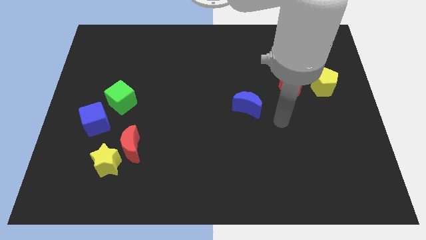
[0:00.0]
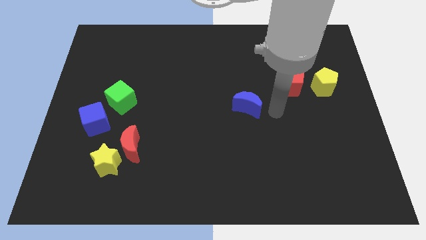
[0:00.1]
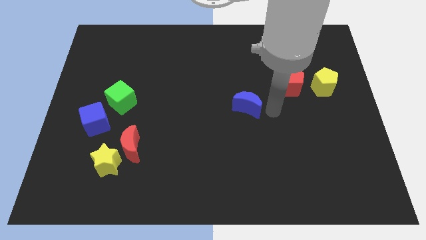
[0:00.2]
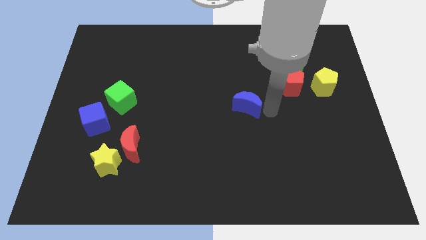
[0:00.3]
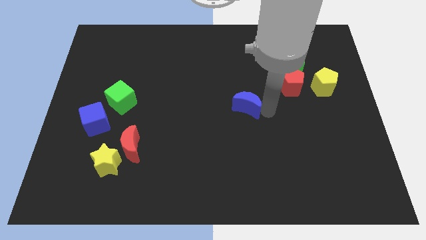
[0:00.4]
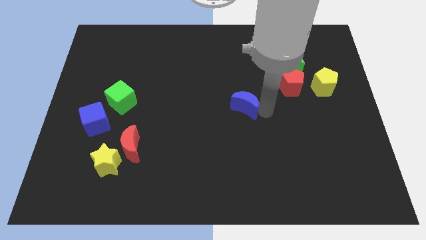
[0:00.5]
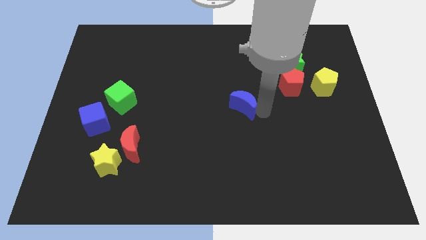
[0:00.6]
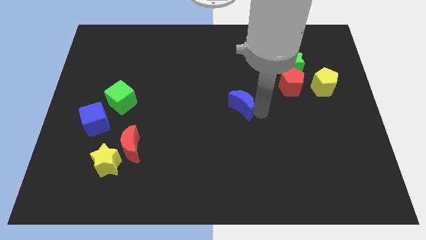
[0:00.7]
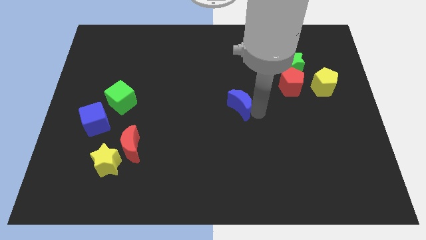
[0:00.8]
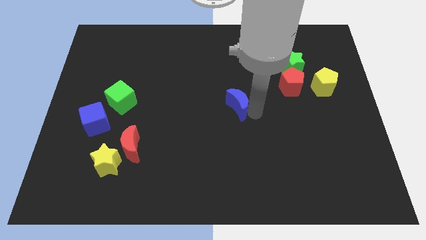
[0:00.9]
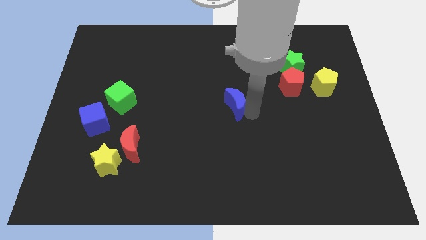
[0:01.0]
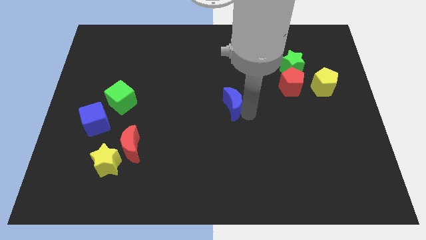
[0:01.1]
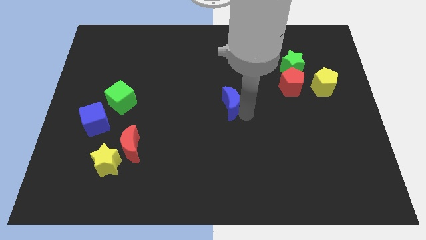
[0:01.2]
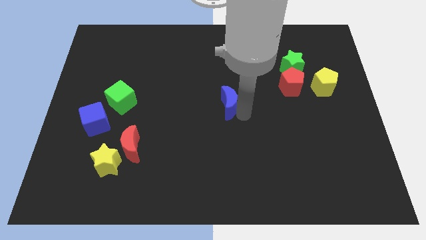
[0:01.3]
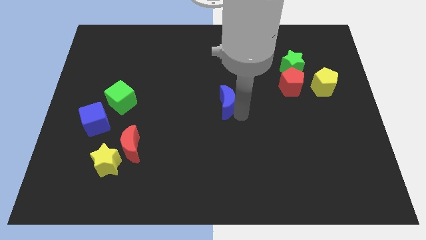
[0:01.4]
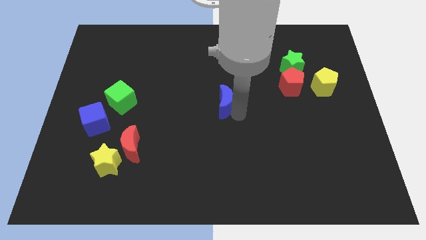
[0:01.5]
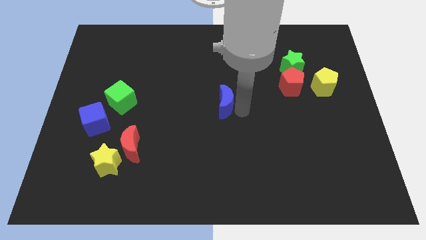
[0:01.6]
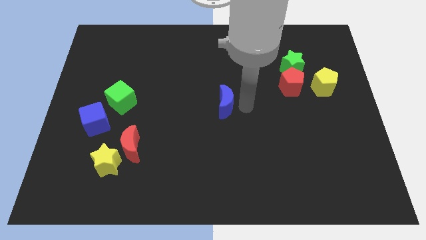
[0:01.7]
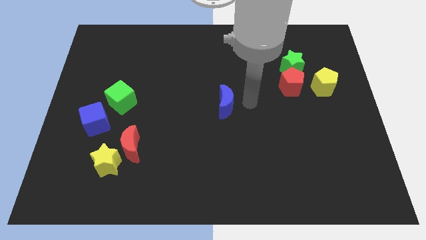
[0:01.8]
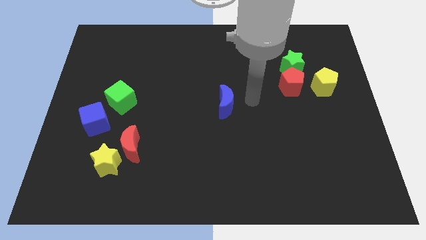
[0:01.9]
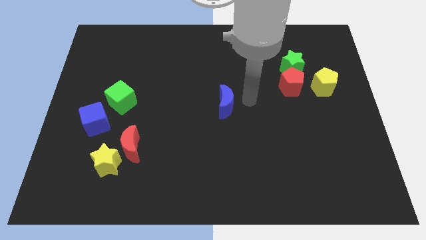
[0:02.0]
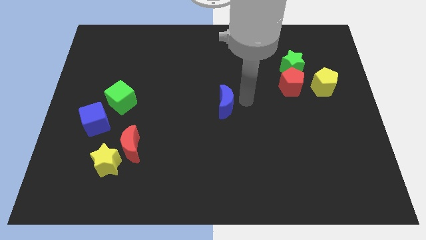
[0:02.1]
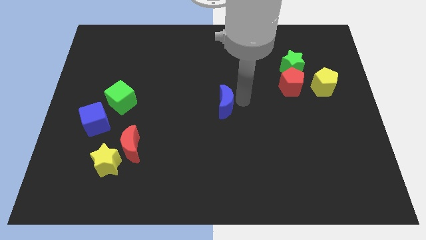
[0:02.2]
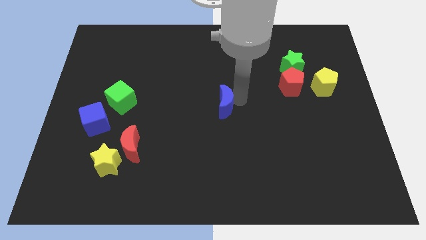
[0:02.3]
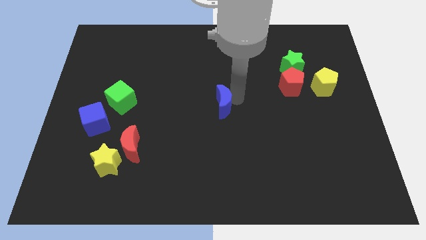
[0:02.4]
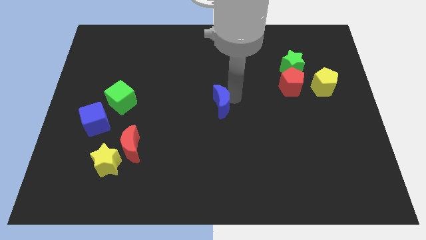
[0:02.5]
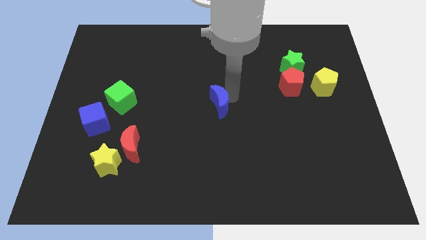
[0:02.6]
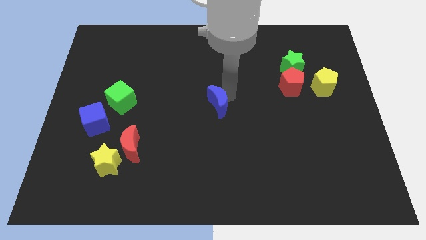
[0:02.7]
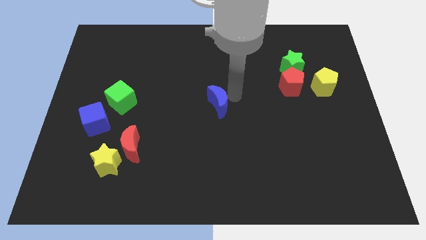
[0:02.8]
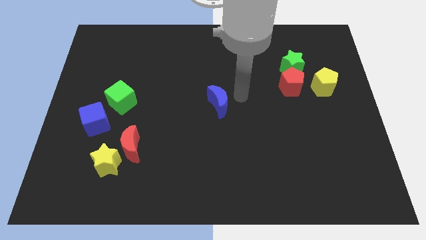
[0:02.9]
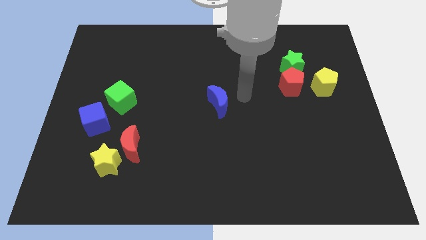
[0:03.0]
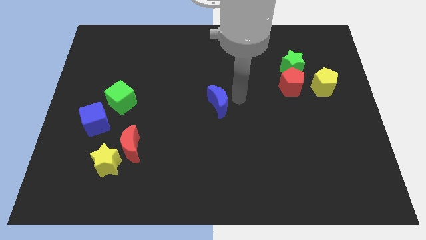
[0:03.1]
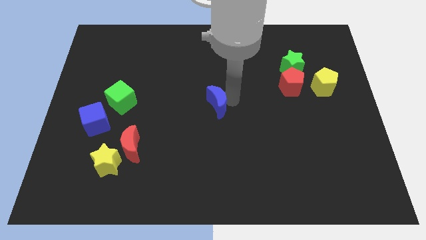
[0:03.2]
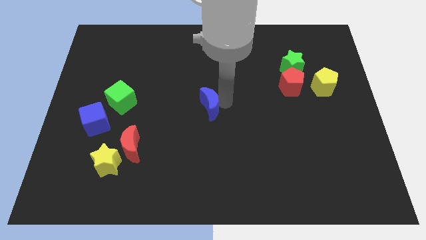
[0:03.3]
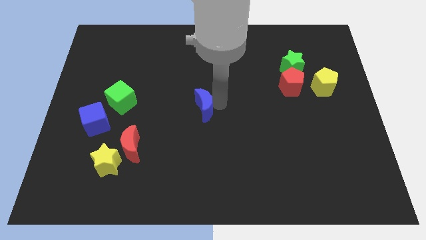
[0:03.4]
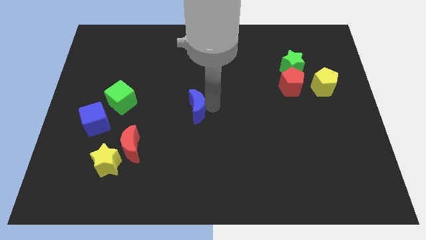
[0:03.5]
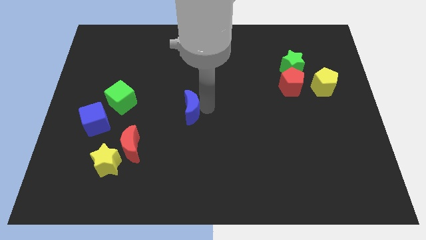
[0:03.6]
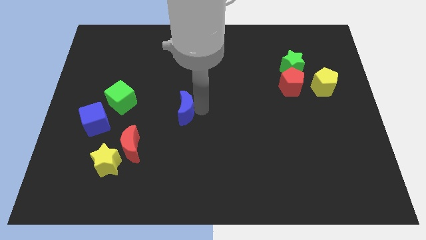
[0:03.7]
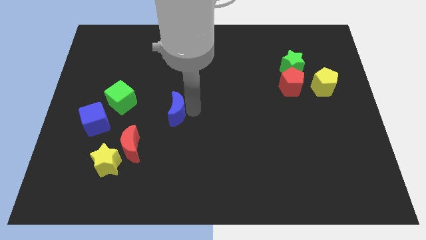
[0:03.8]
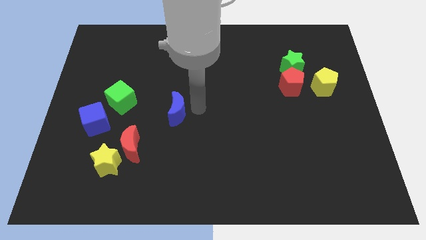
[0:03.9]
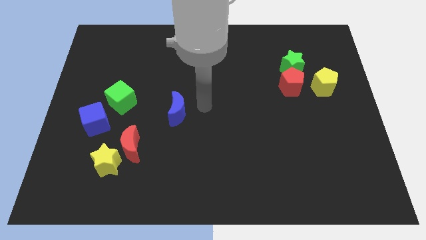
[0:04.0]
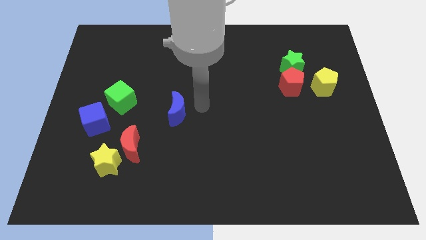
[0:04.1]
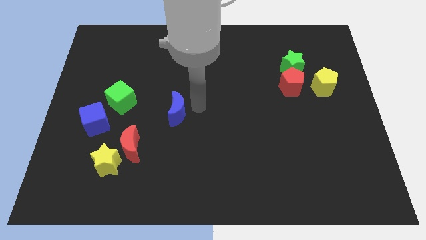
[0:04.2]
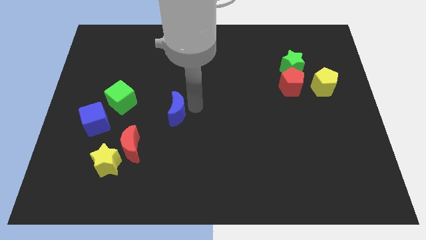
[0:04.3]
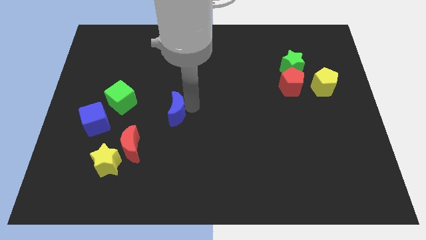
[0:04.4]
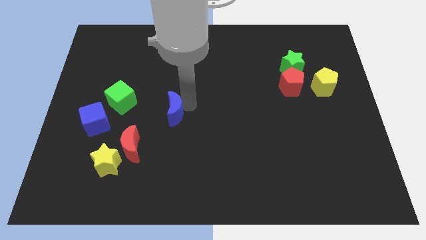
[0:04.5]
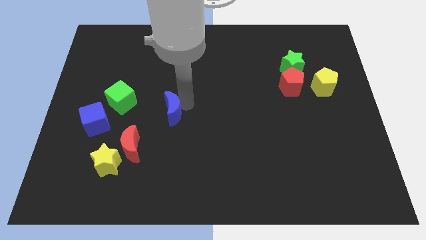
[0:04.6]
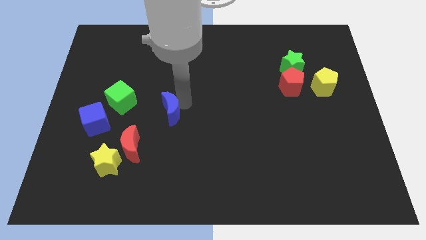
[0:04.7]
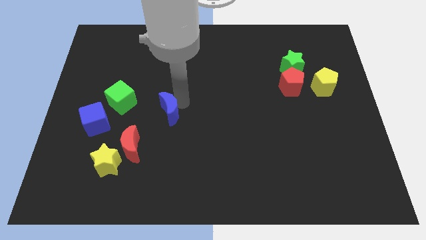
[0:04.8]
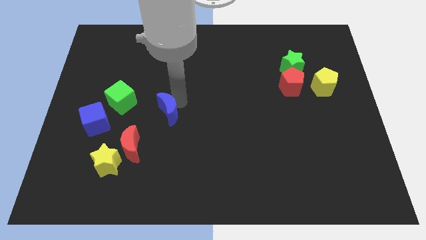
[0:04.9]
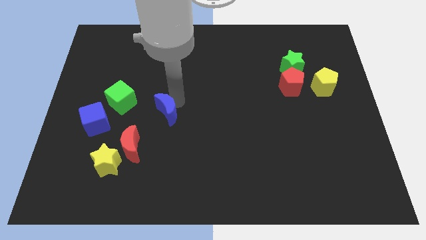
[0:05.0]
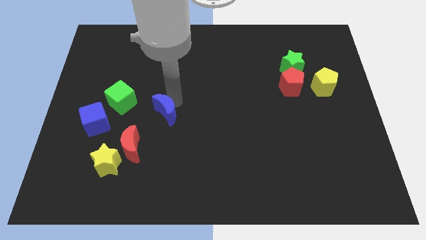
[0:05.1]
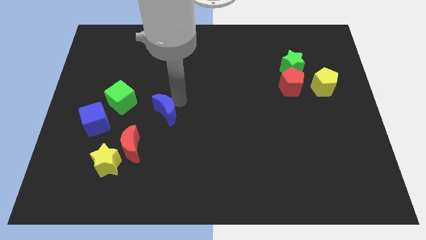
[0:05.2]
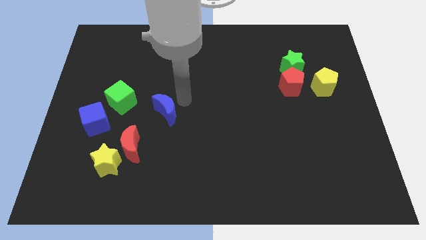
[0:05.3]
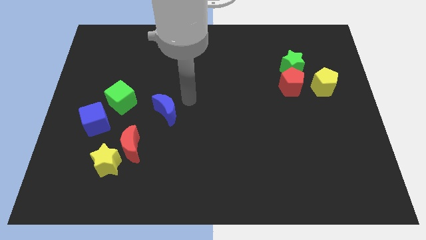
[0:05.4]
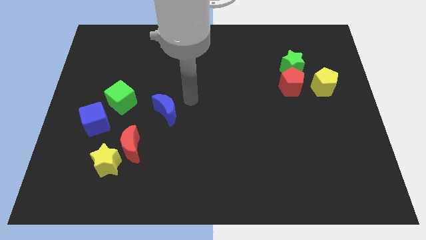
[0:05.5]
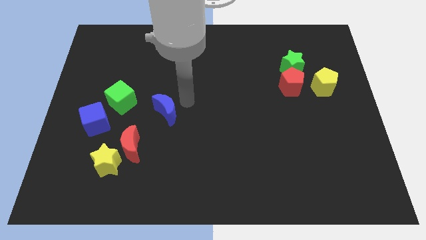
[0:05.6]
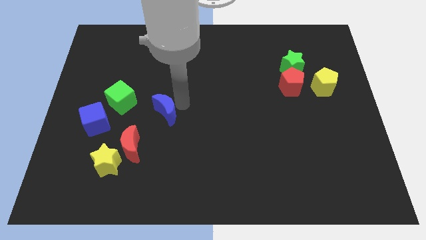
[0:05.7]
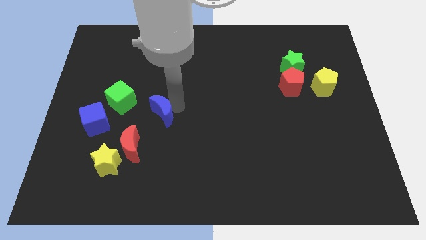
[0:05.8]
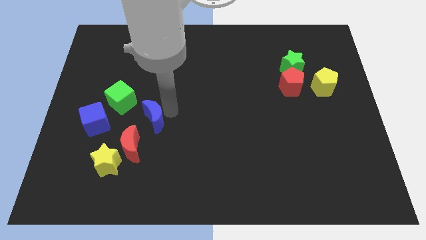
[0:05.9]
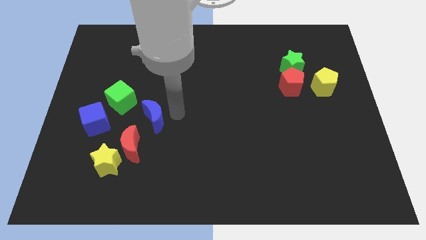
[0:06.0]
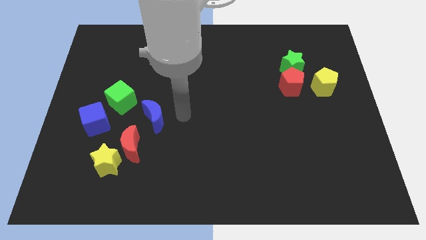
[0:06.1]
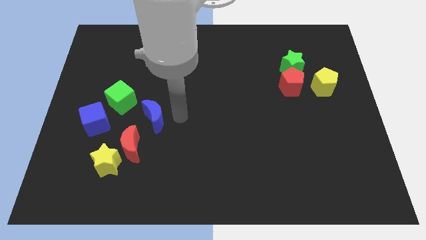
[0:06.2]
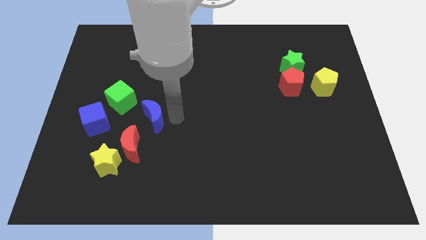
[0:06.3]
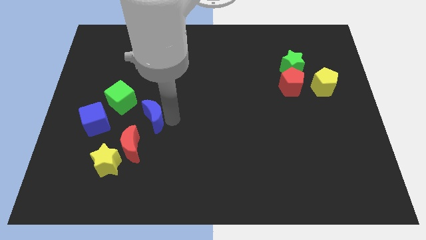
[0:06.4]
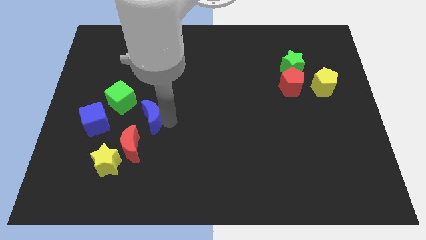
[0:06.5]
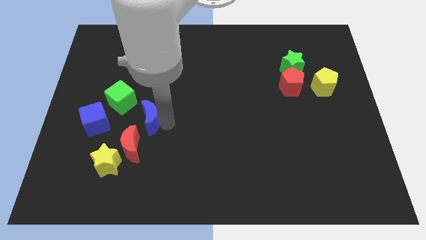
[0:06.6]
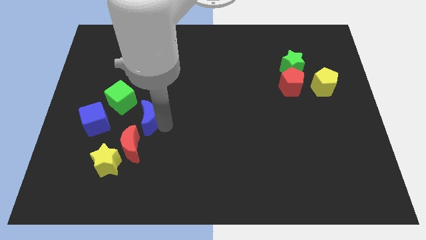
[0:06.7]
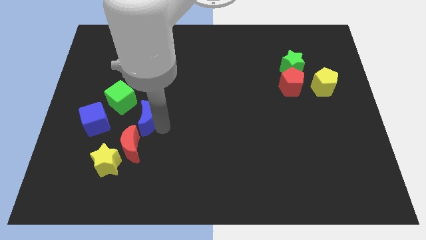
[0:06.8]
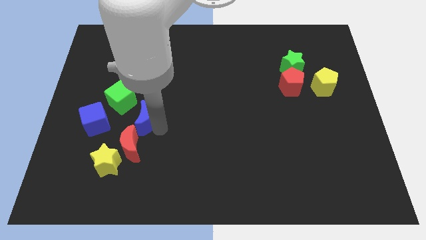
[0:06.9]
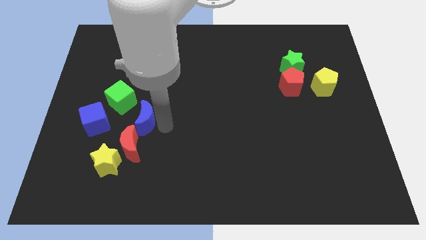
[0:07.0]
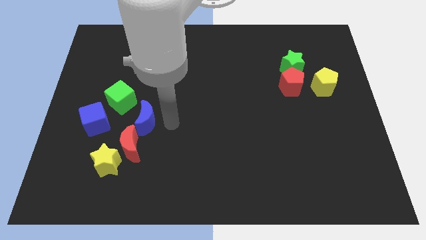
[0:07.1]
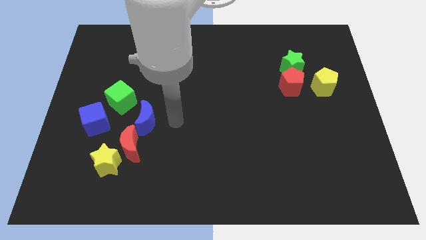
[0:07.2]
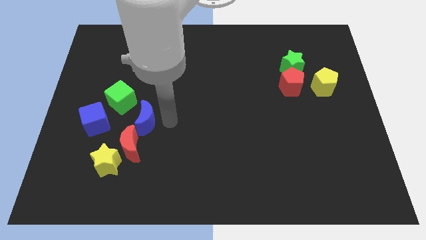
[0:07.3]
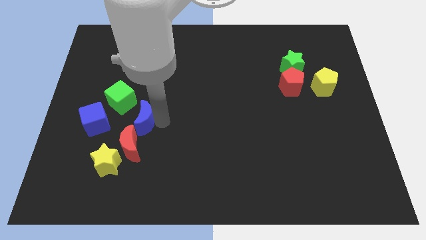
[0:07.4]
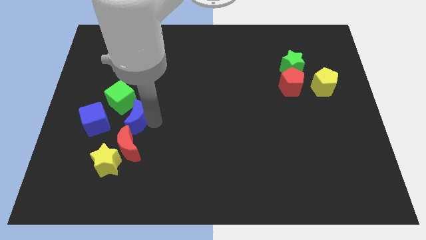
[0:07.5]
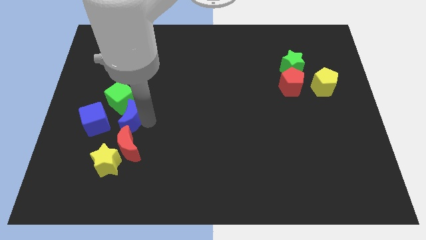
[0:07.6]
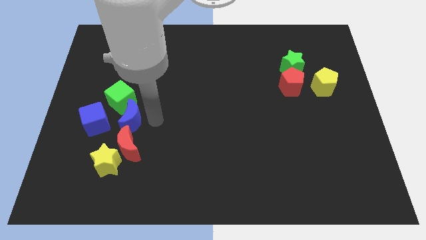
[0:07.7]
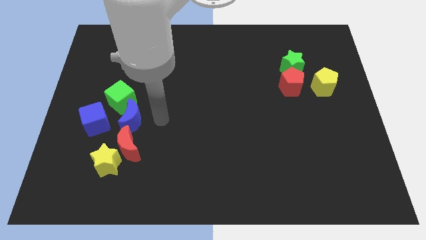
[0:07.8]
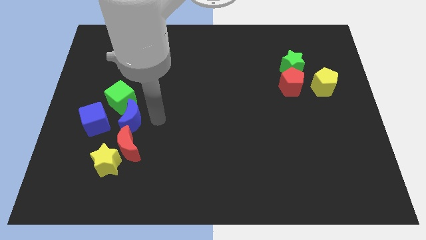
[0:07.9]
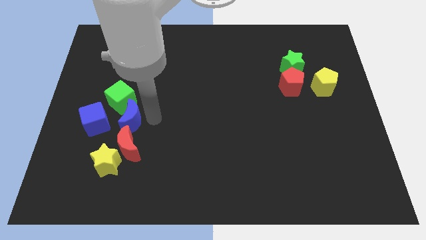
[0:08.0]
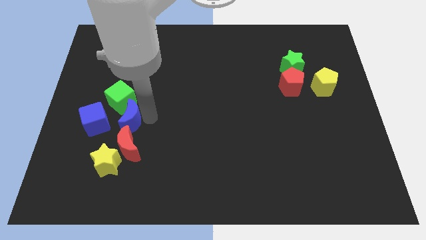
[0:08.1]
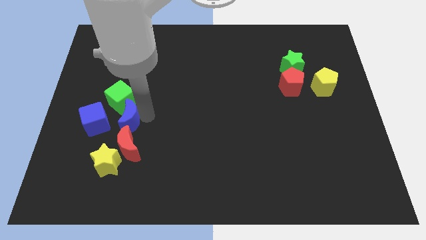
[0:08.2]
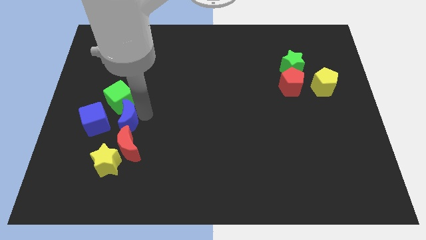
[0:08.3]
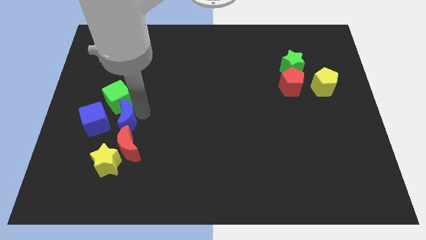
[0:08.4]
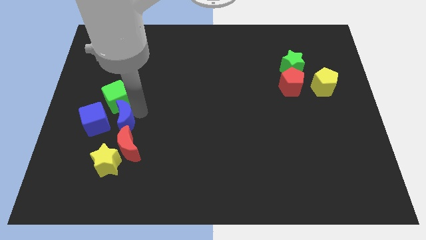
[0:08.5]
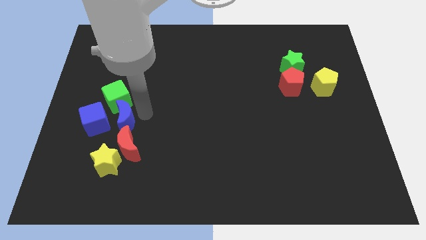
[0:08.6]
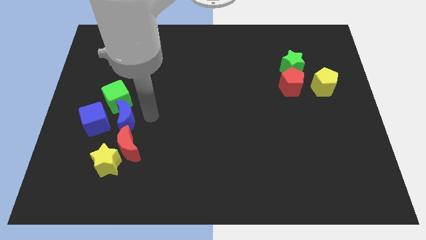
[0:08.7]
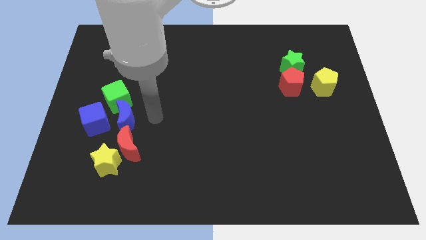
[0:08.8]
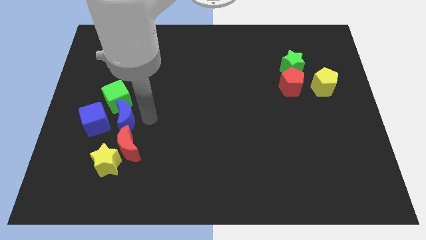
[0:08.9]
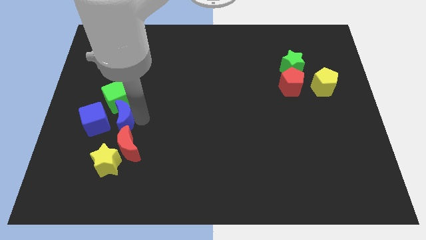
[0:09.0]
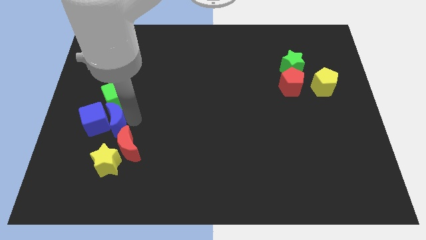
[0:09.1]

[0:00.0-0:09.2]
slide the blue moon close to the blue cube
